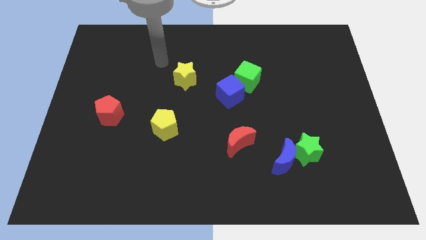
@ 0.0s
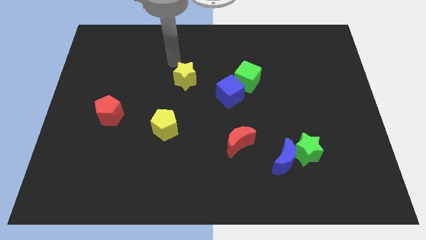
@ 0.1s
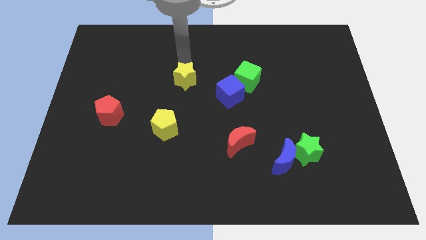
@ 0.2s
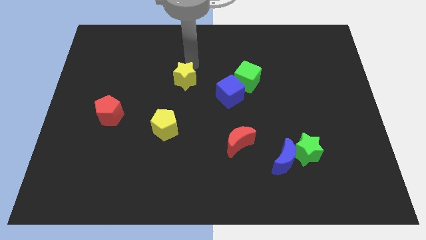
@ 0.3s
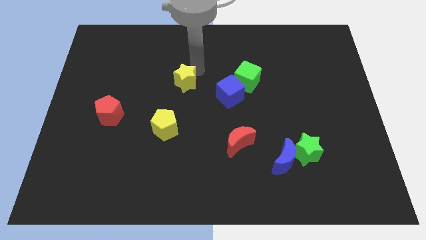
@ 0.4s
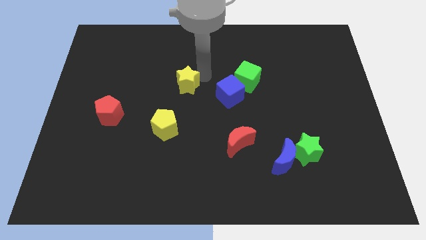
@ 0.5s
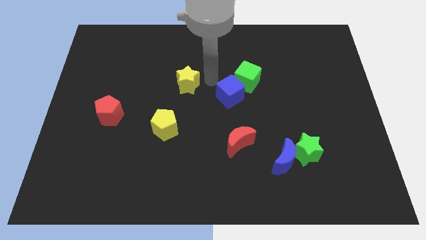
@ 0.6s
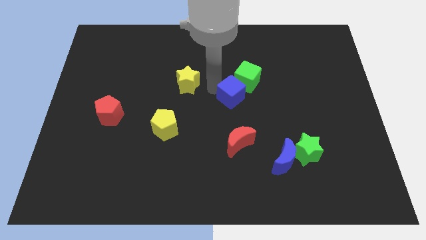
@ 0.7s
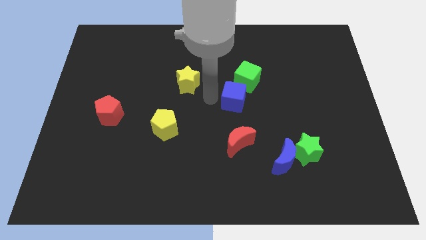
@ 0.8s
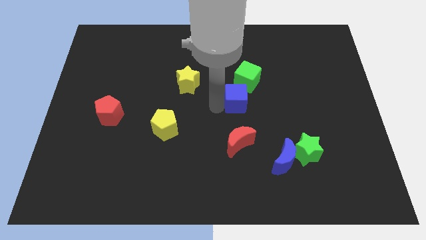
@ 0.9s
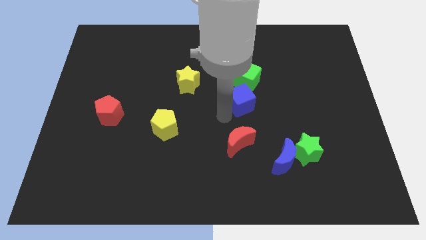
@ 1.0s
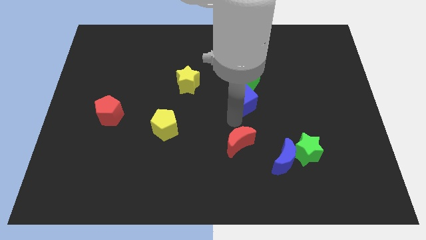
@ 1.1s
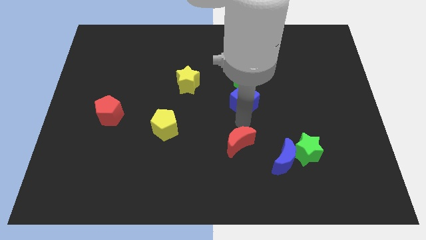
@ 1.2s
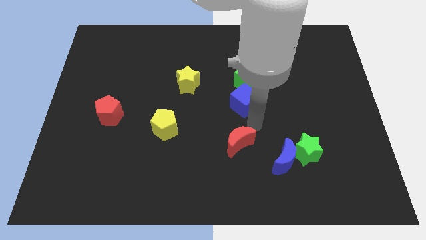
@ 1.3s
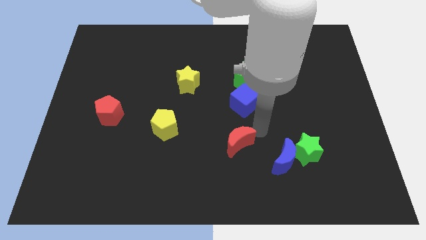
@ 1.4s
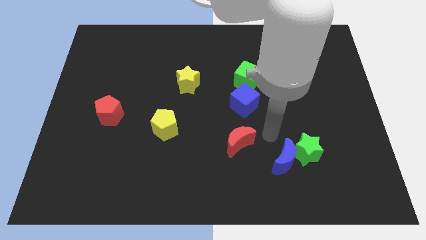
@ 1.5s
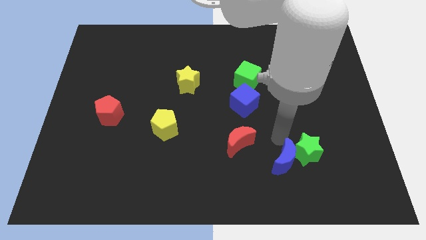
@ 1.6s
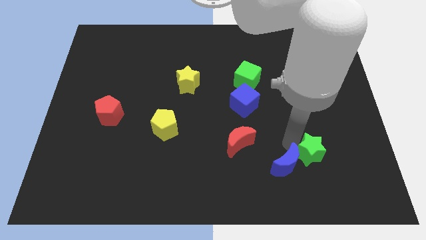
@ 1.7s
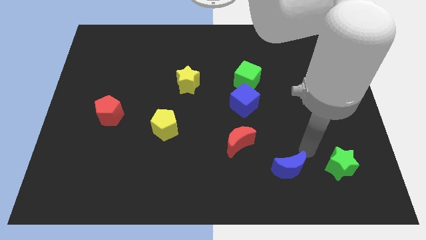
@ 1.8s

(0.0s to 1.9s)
separate the blue moon from the green star

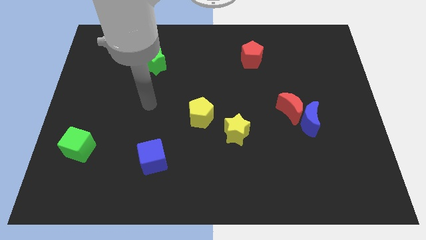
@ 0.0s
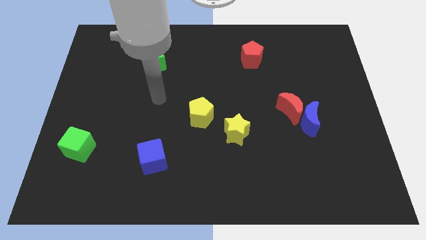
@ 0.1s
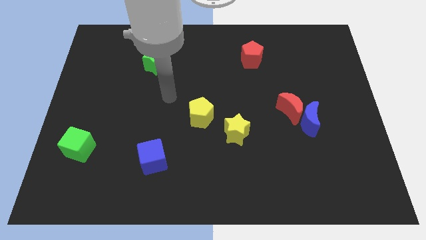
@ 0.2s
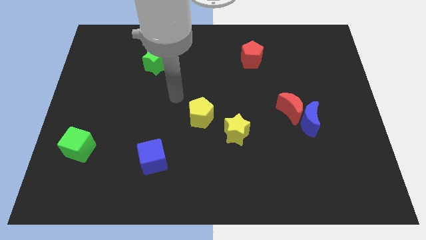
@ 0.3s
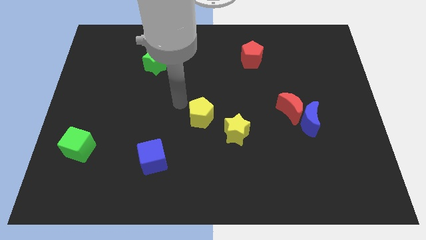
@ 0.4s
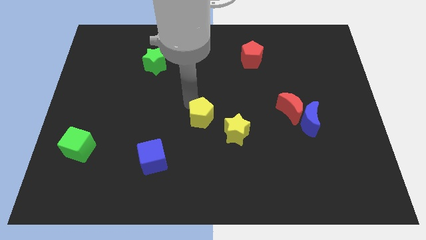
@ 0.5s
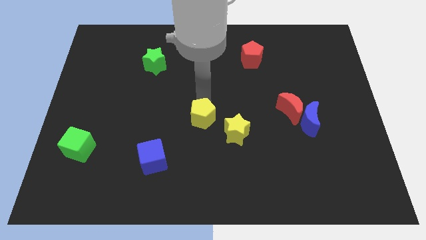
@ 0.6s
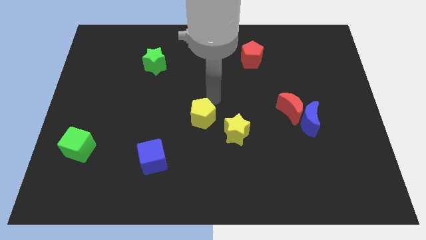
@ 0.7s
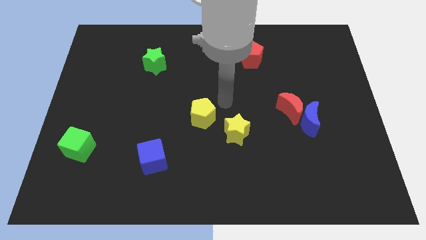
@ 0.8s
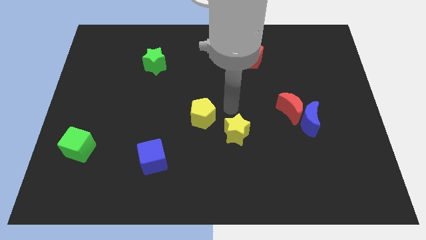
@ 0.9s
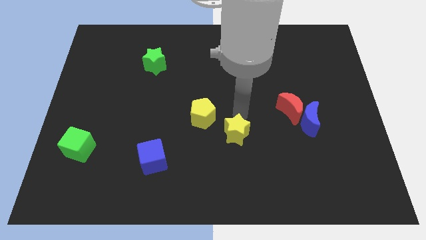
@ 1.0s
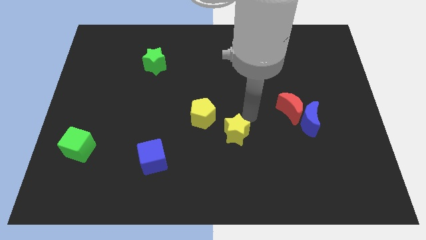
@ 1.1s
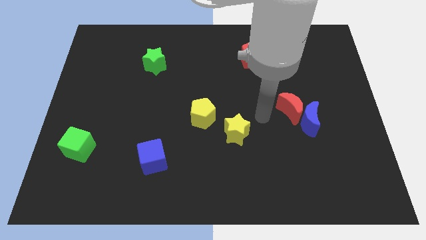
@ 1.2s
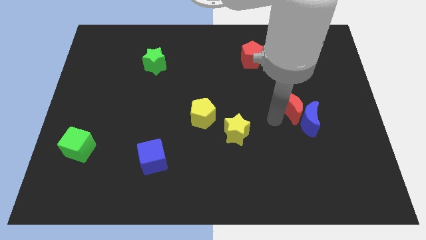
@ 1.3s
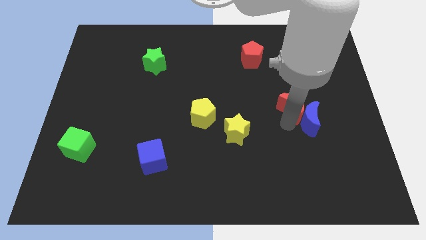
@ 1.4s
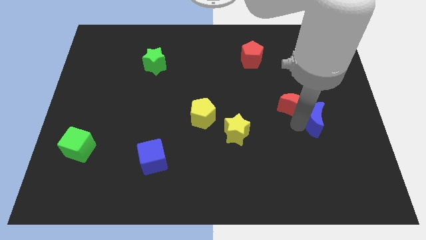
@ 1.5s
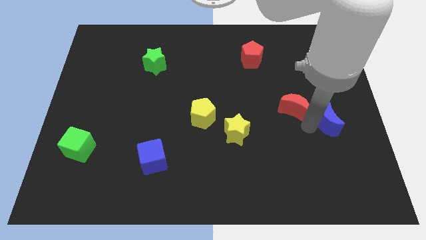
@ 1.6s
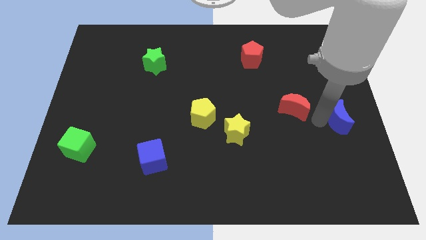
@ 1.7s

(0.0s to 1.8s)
move the red moon away from the blue moon

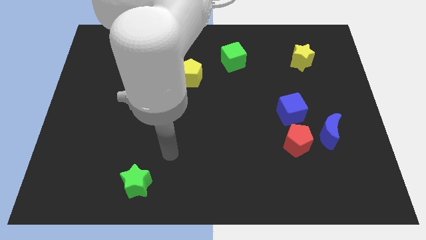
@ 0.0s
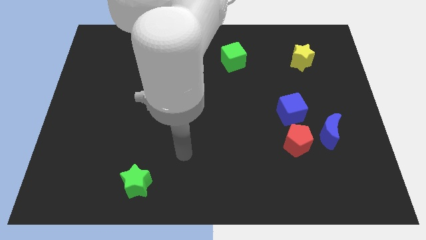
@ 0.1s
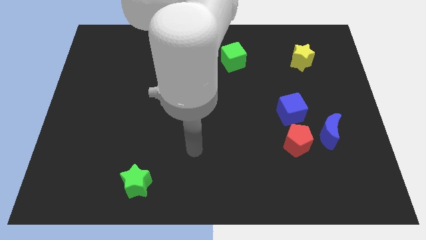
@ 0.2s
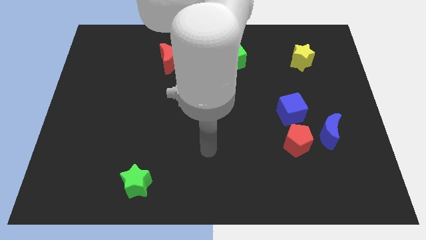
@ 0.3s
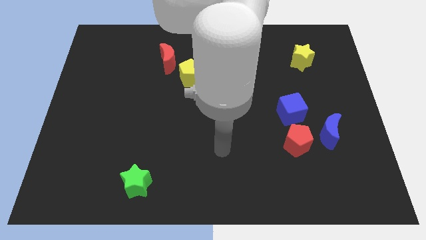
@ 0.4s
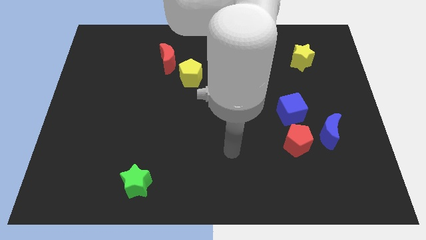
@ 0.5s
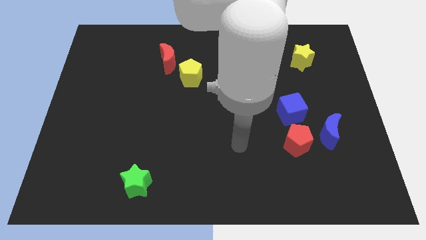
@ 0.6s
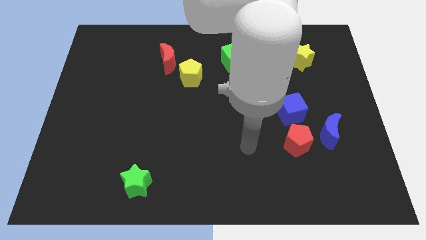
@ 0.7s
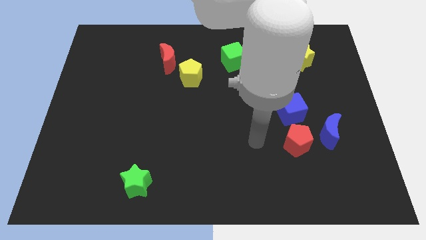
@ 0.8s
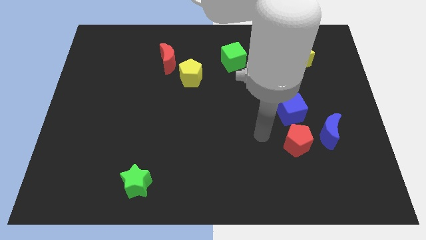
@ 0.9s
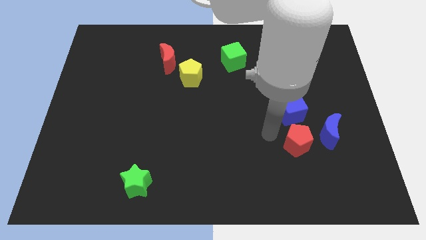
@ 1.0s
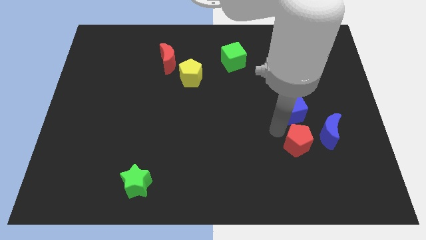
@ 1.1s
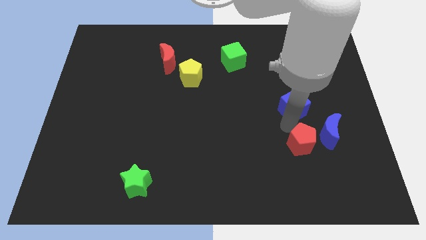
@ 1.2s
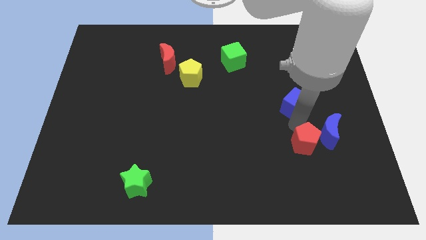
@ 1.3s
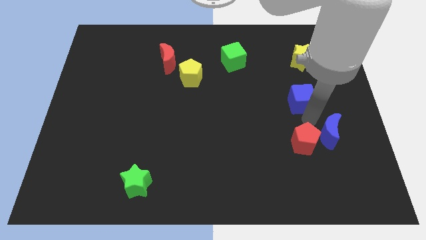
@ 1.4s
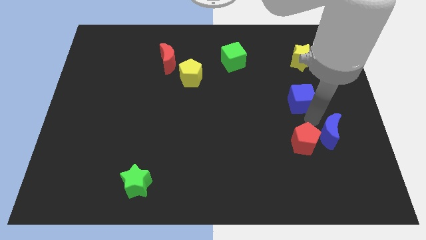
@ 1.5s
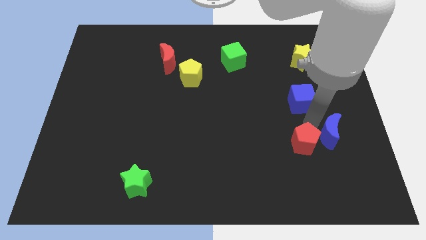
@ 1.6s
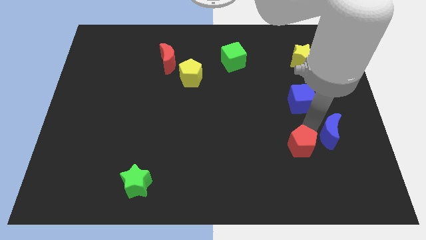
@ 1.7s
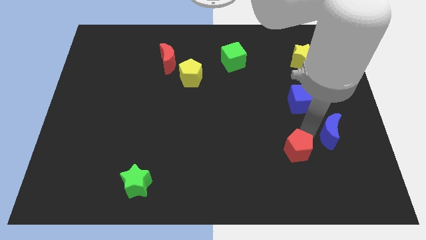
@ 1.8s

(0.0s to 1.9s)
move the red pentagon away from the blue moon and blue cube

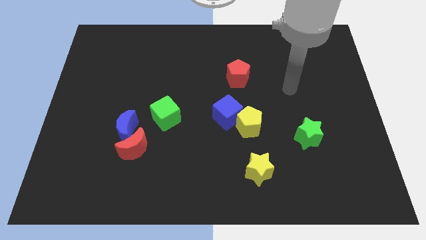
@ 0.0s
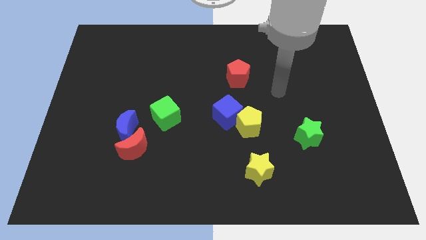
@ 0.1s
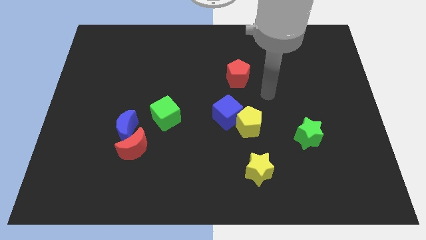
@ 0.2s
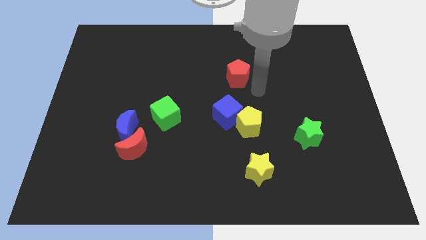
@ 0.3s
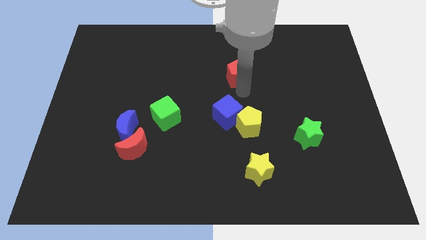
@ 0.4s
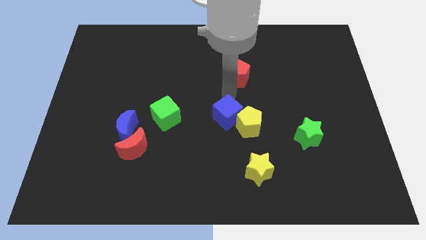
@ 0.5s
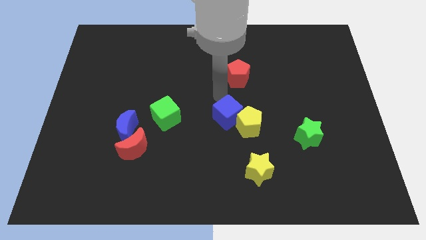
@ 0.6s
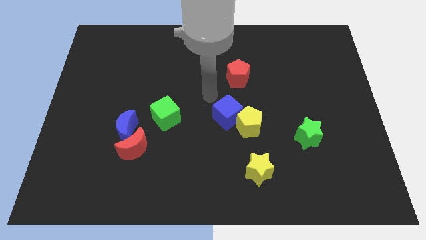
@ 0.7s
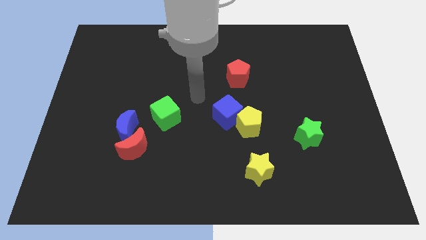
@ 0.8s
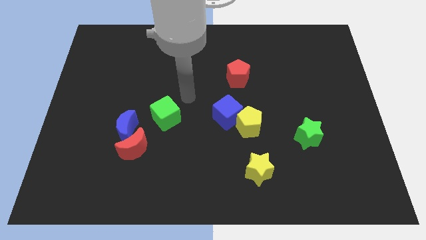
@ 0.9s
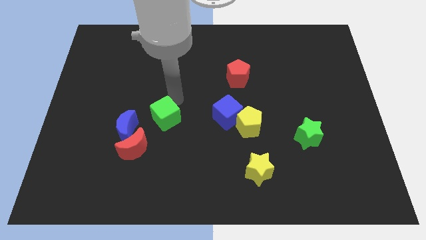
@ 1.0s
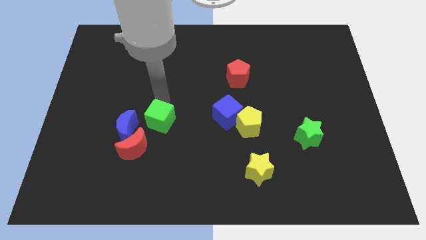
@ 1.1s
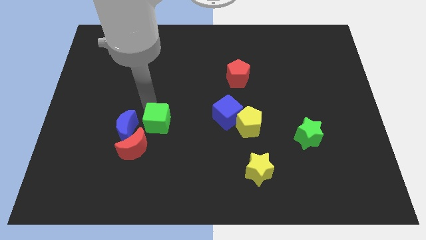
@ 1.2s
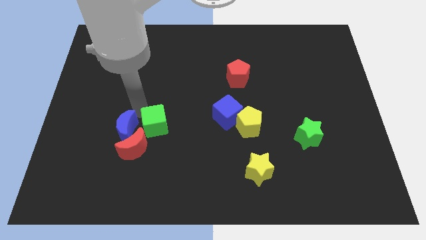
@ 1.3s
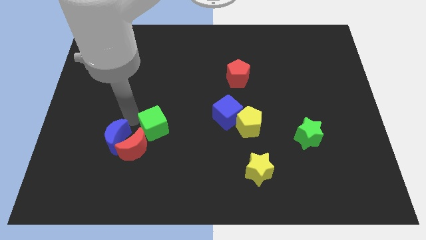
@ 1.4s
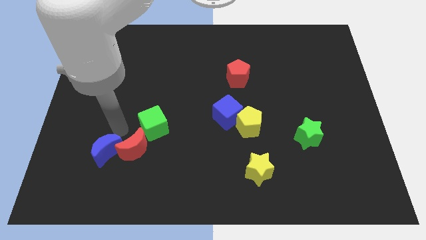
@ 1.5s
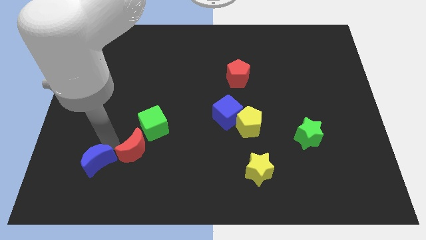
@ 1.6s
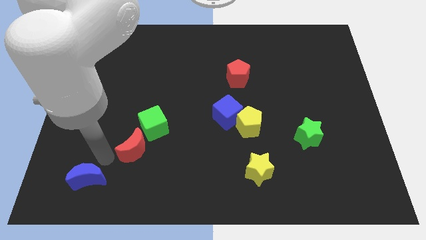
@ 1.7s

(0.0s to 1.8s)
separate the red moon from the blue moon

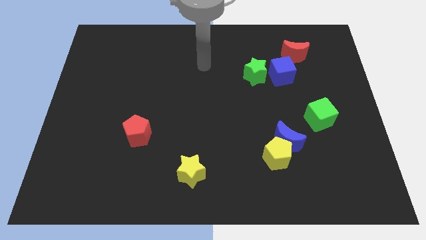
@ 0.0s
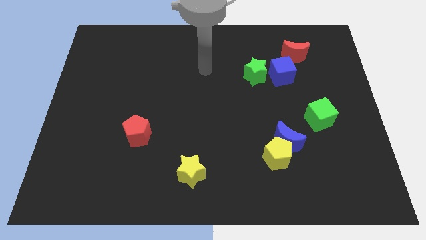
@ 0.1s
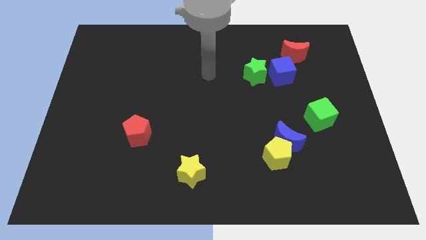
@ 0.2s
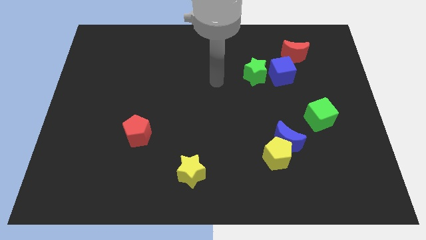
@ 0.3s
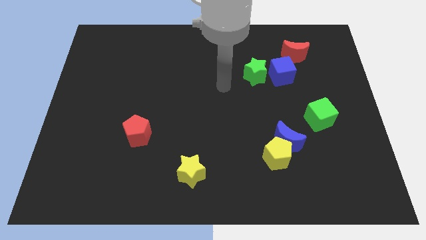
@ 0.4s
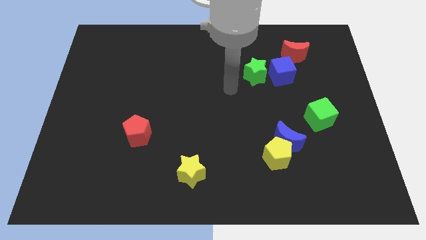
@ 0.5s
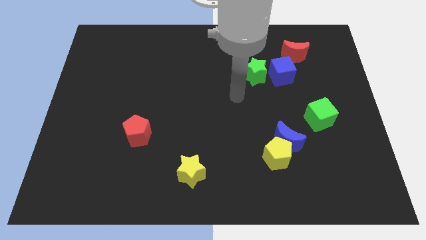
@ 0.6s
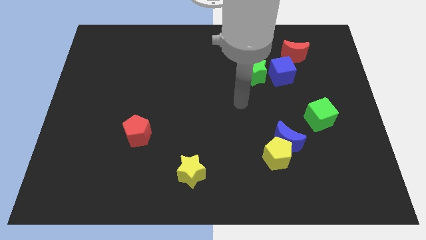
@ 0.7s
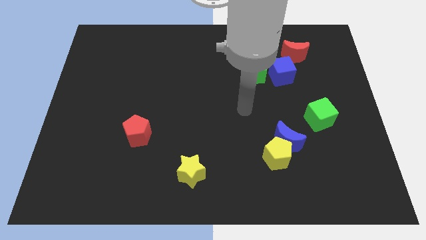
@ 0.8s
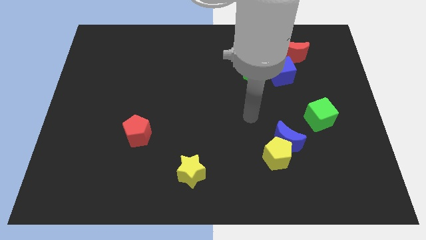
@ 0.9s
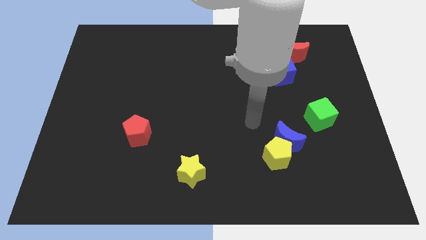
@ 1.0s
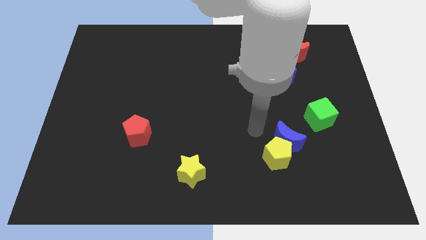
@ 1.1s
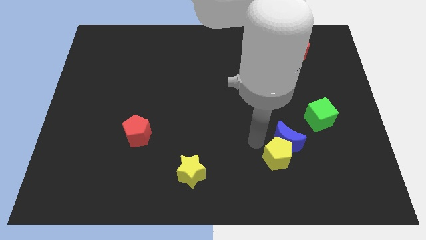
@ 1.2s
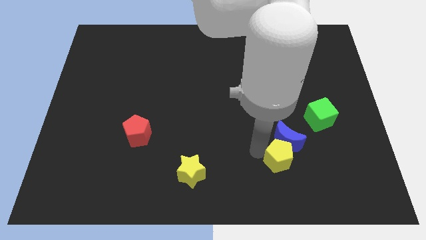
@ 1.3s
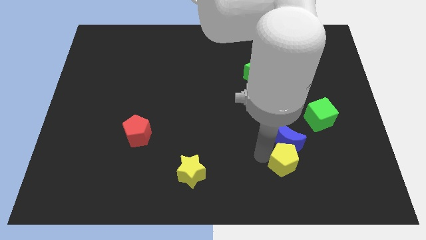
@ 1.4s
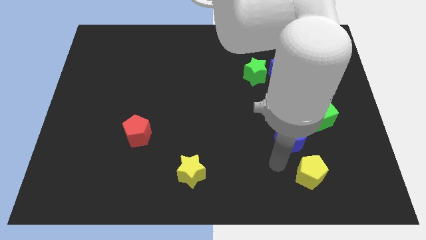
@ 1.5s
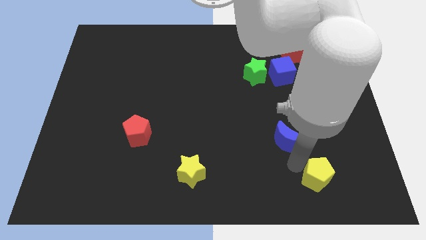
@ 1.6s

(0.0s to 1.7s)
separate the blue moon from the yellow pentagon

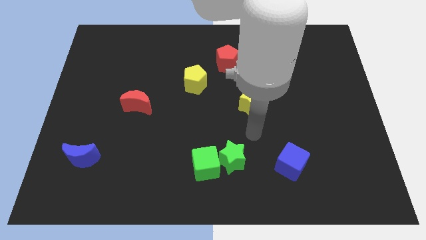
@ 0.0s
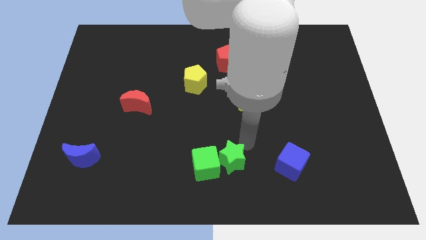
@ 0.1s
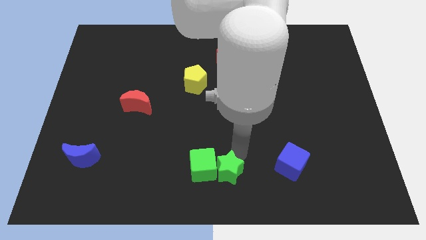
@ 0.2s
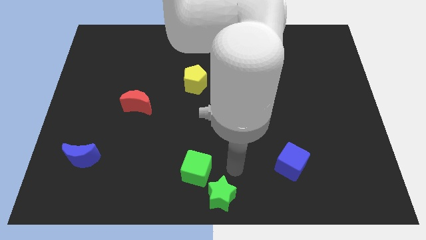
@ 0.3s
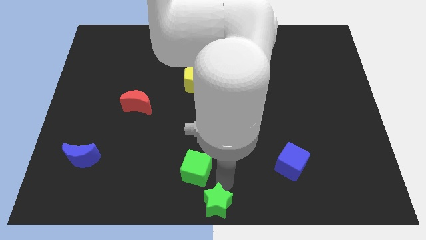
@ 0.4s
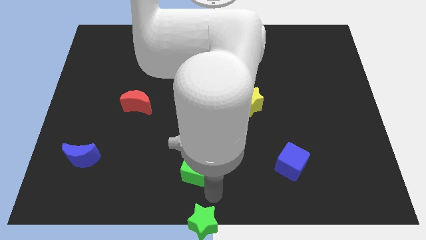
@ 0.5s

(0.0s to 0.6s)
separate the green cube from the green star
